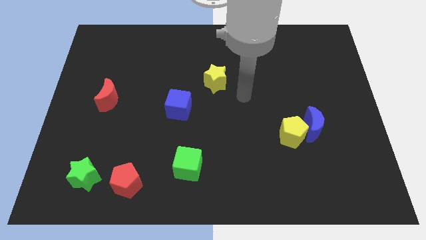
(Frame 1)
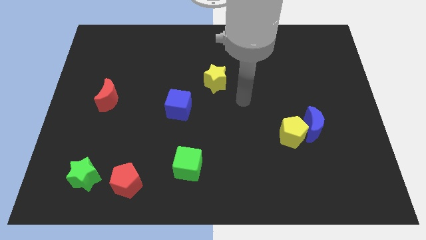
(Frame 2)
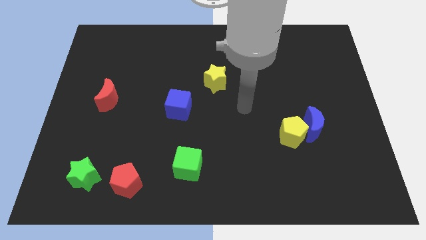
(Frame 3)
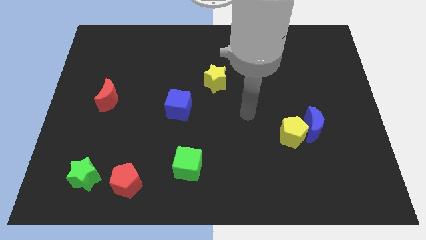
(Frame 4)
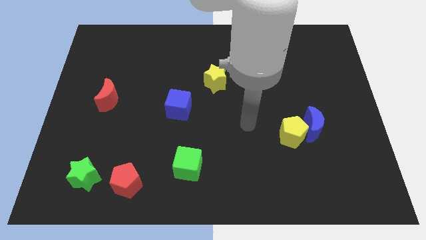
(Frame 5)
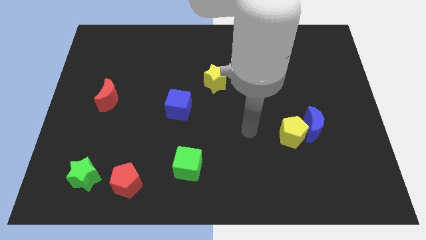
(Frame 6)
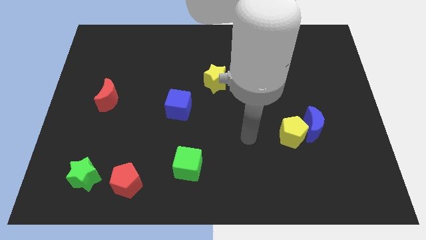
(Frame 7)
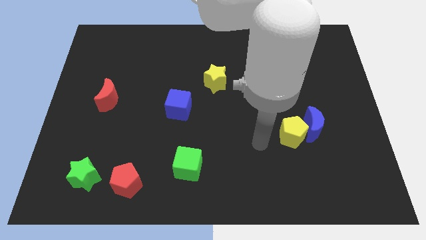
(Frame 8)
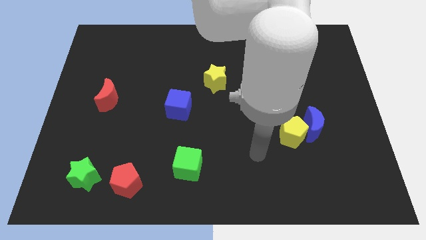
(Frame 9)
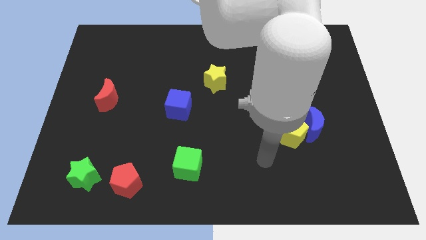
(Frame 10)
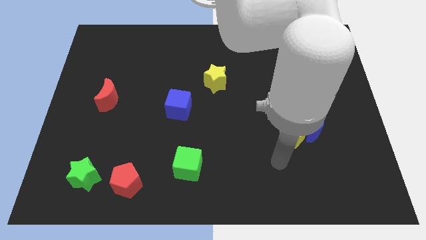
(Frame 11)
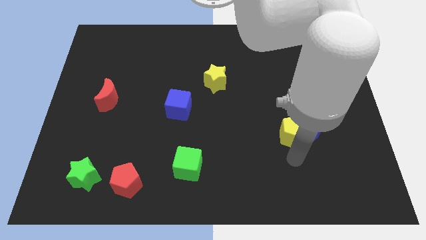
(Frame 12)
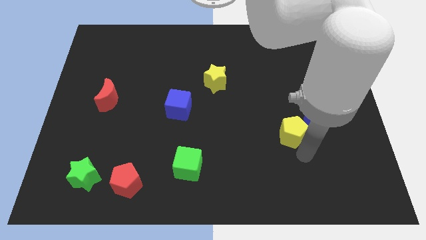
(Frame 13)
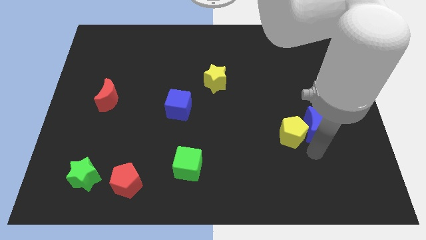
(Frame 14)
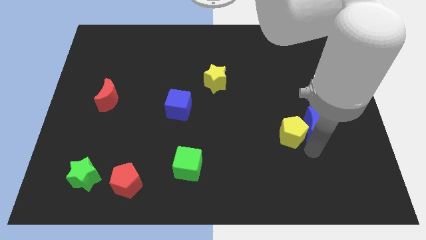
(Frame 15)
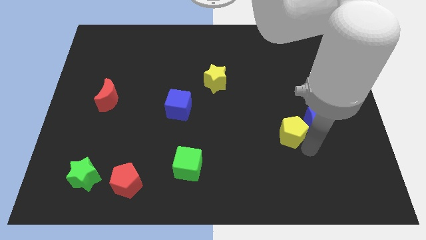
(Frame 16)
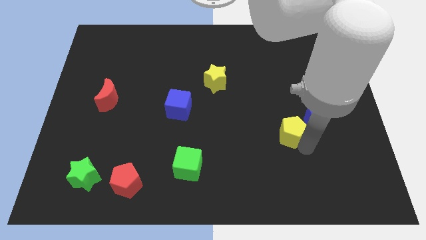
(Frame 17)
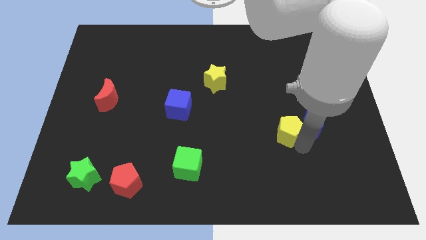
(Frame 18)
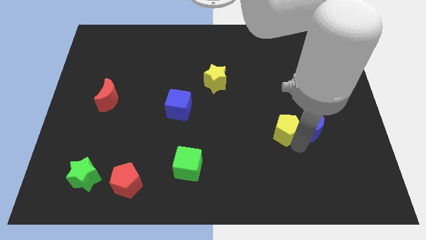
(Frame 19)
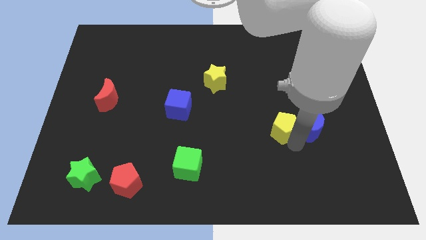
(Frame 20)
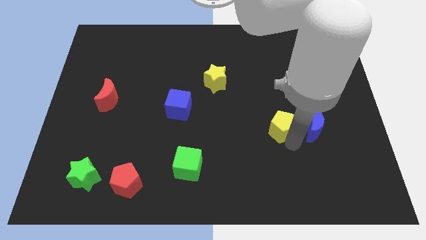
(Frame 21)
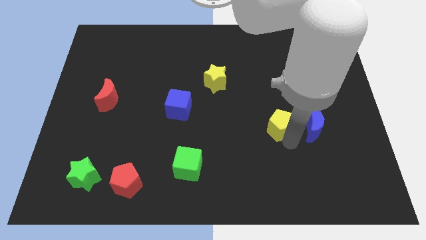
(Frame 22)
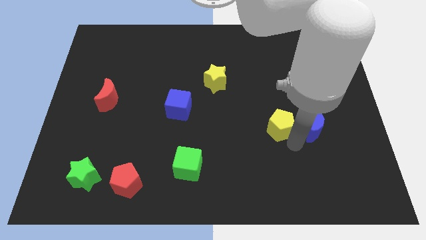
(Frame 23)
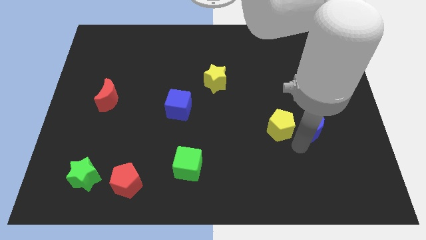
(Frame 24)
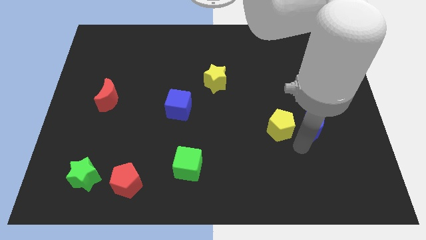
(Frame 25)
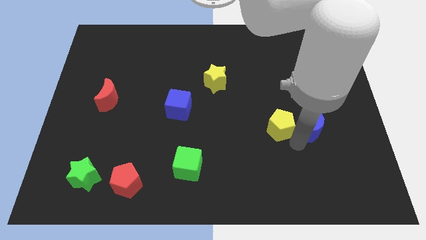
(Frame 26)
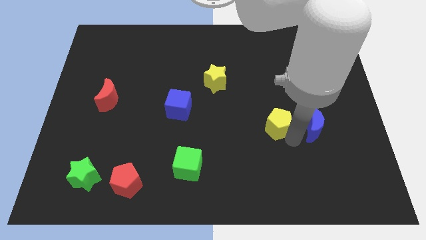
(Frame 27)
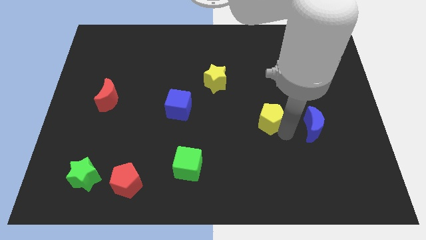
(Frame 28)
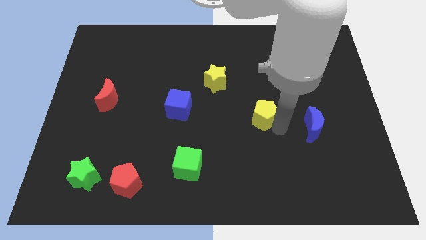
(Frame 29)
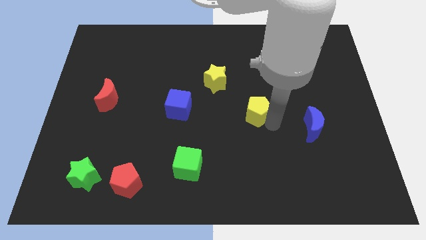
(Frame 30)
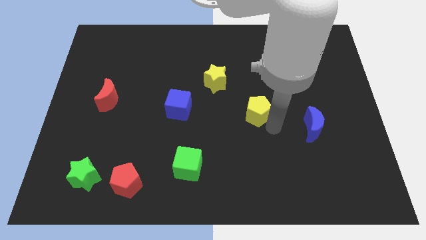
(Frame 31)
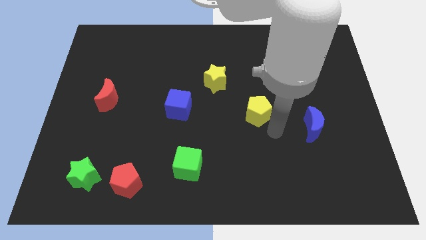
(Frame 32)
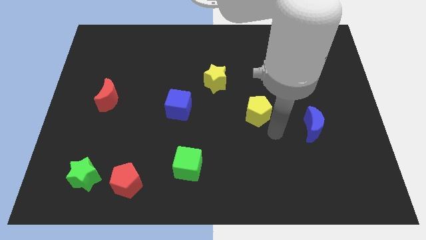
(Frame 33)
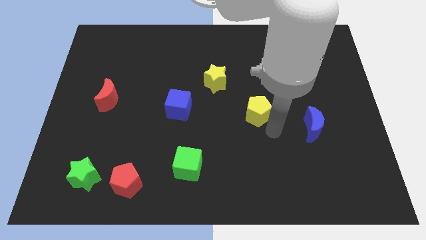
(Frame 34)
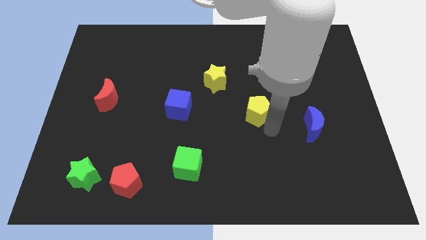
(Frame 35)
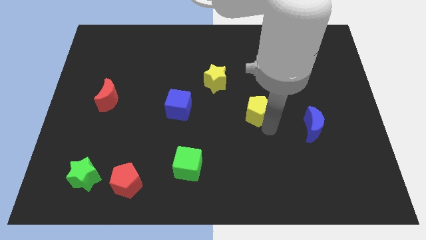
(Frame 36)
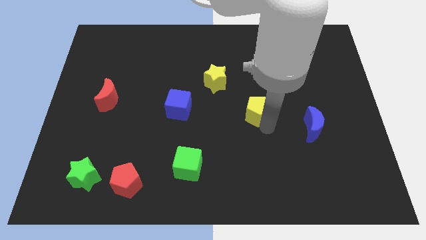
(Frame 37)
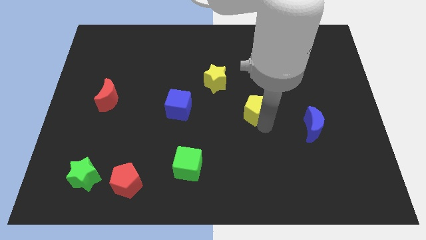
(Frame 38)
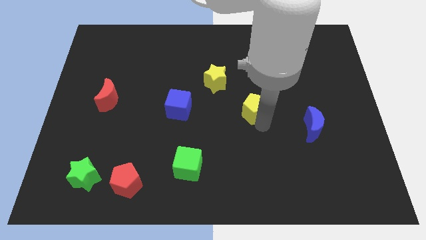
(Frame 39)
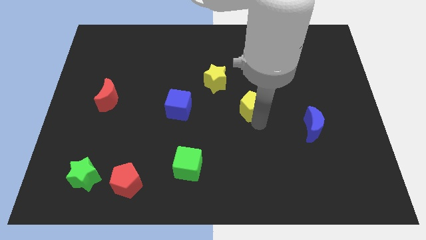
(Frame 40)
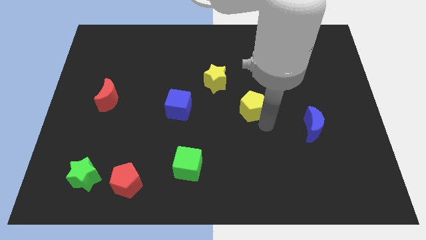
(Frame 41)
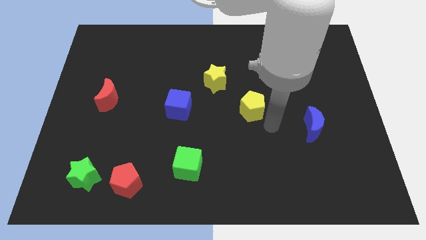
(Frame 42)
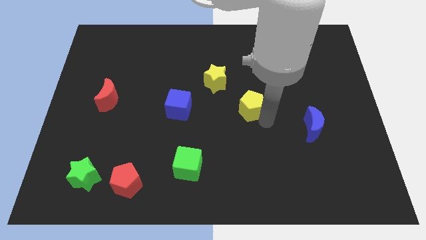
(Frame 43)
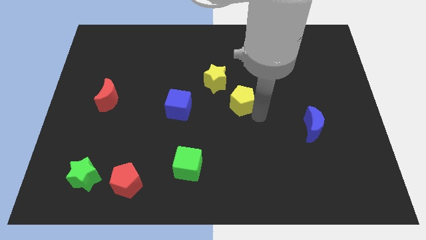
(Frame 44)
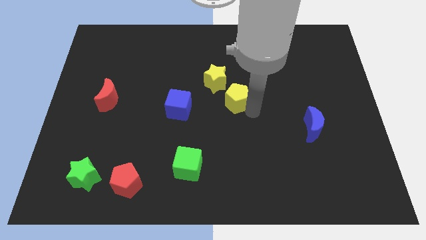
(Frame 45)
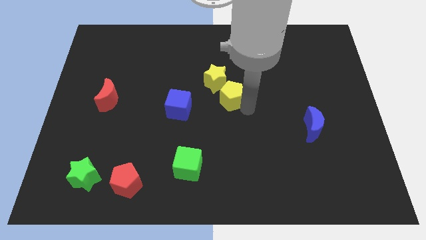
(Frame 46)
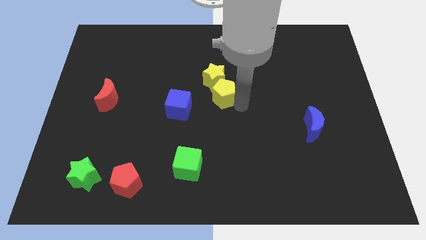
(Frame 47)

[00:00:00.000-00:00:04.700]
slide the yellow pentagon to the yellow star

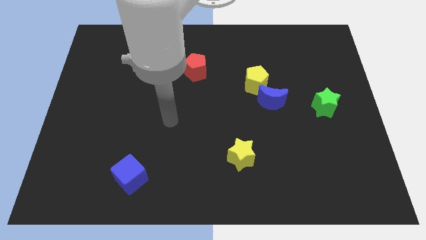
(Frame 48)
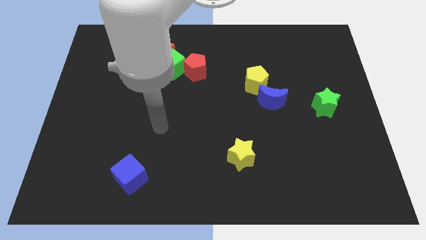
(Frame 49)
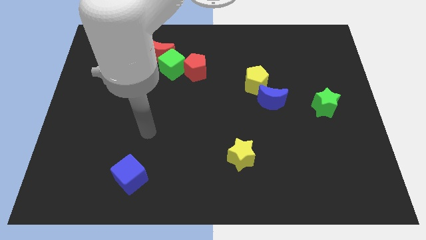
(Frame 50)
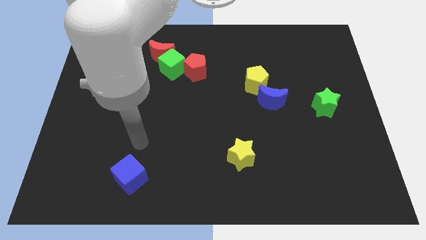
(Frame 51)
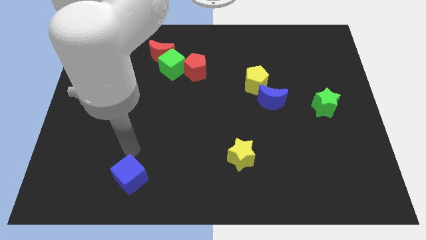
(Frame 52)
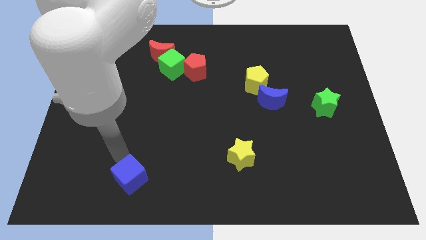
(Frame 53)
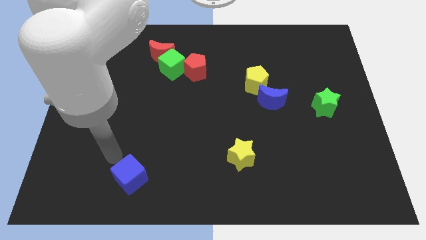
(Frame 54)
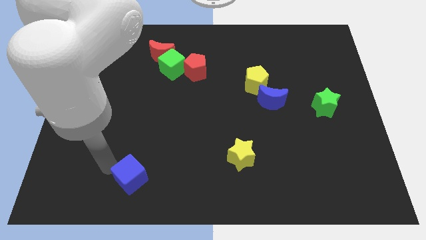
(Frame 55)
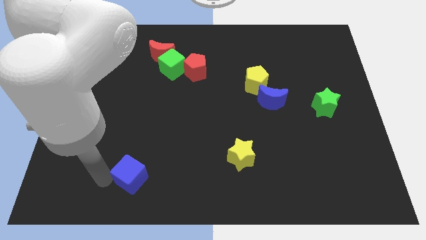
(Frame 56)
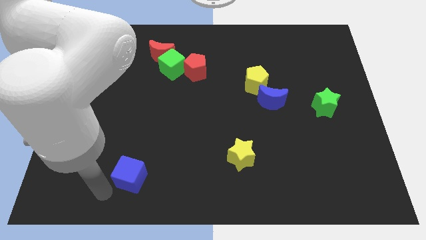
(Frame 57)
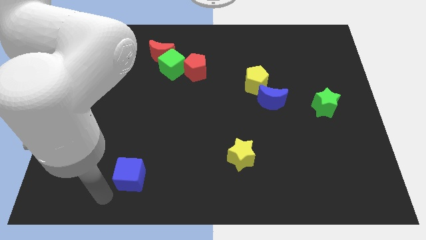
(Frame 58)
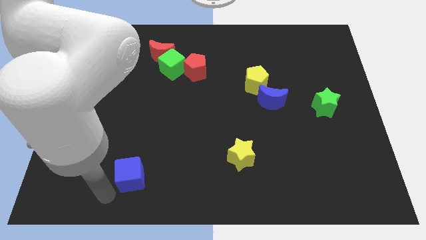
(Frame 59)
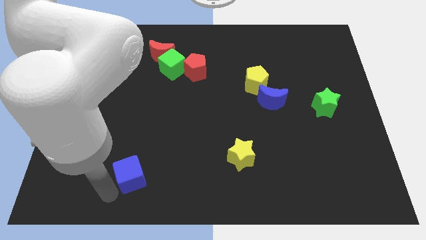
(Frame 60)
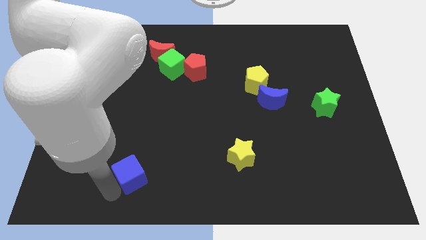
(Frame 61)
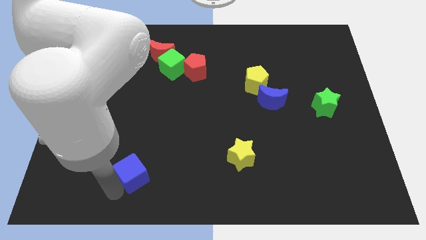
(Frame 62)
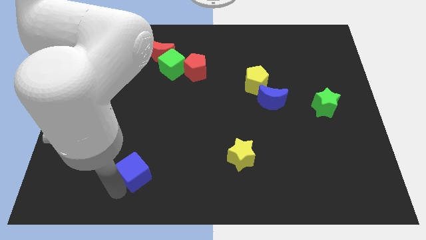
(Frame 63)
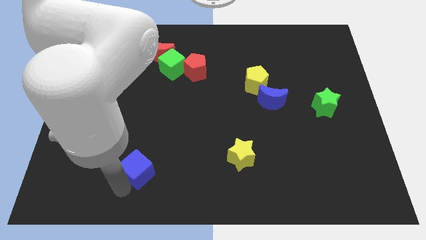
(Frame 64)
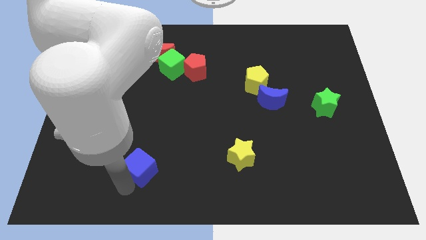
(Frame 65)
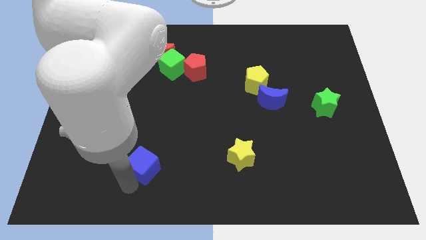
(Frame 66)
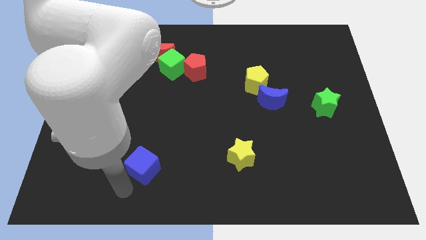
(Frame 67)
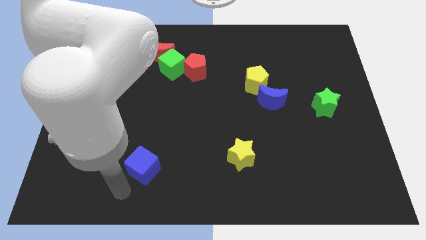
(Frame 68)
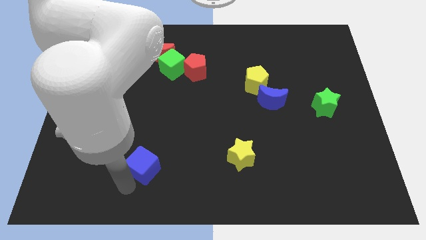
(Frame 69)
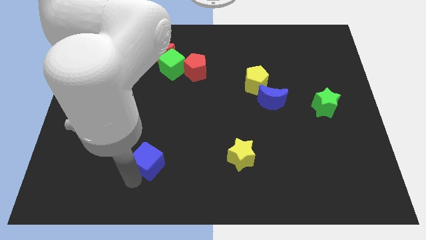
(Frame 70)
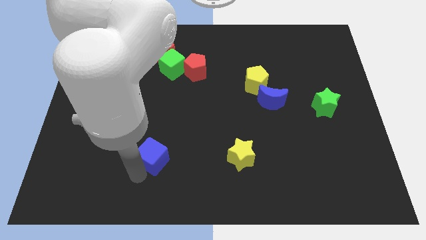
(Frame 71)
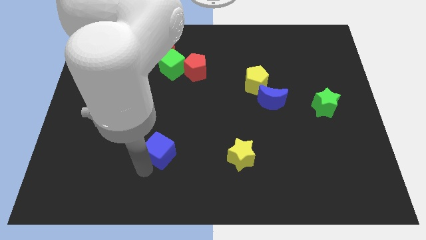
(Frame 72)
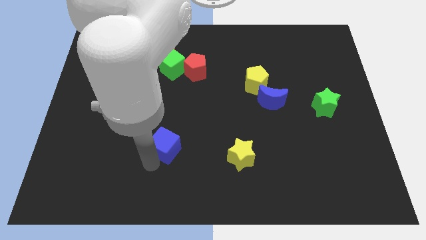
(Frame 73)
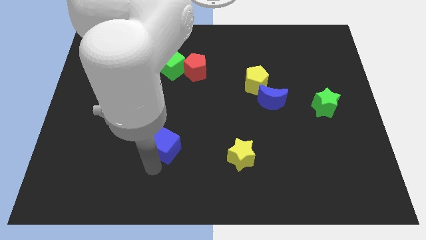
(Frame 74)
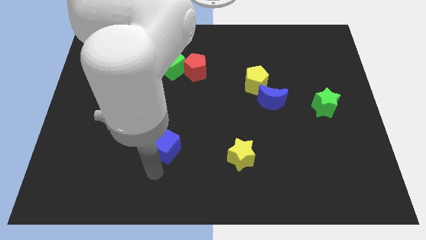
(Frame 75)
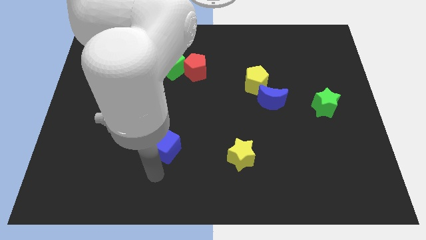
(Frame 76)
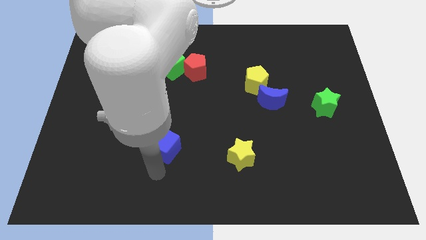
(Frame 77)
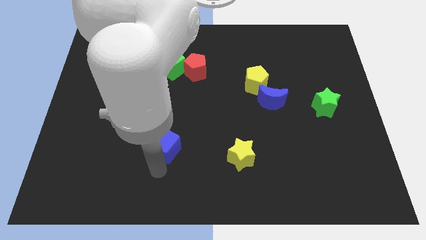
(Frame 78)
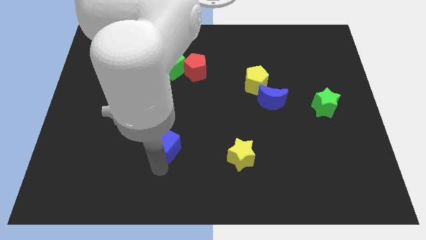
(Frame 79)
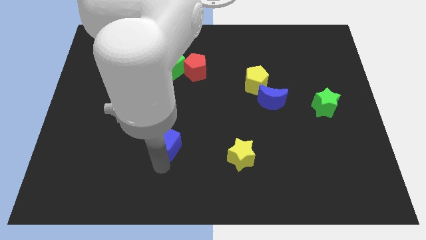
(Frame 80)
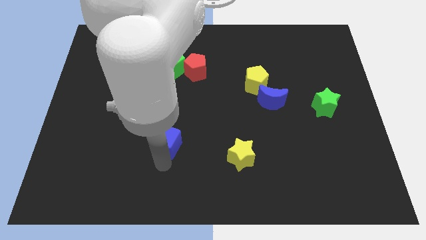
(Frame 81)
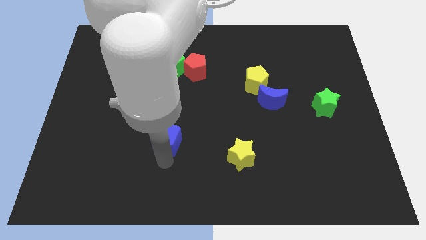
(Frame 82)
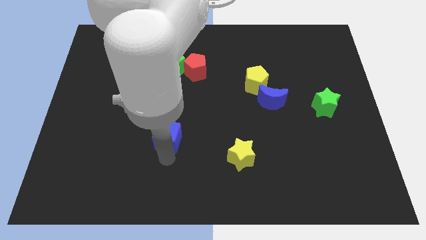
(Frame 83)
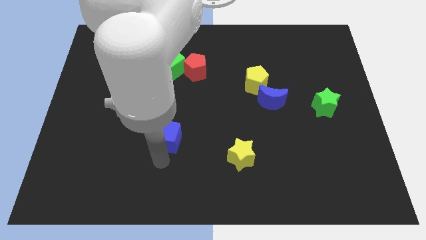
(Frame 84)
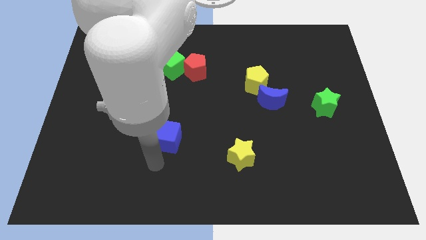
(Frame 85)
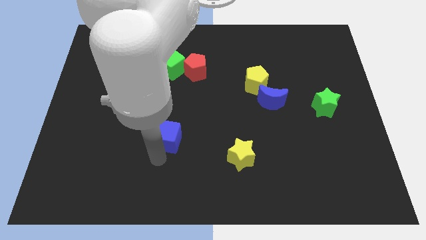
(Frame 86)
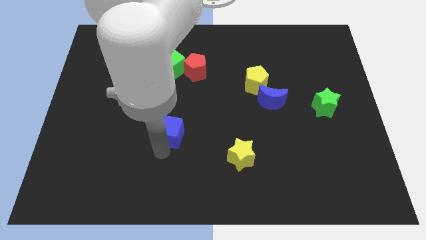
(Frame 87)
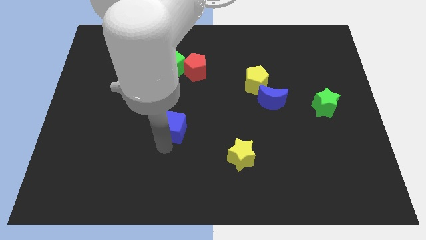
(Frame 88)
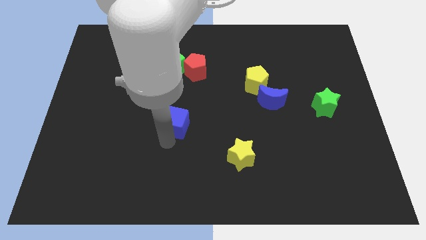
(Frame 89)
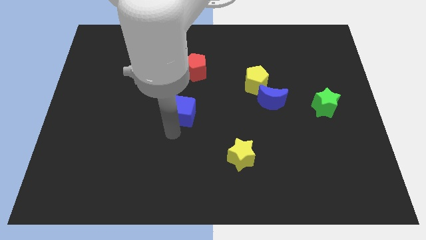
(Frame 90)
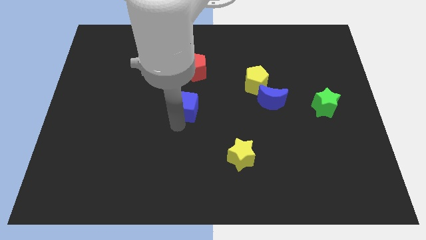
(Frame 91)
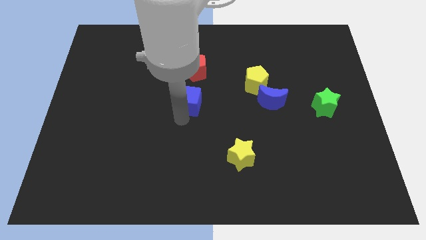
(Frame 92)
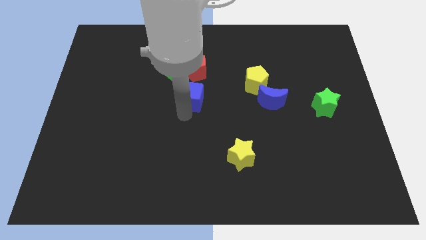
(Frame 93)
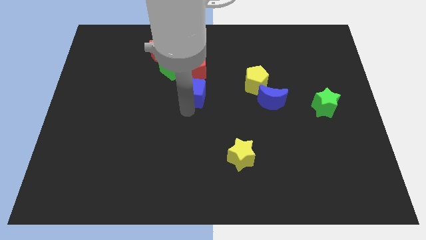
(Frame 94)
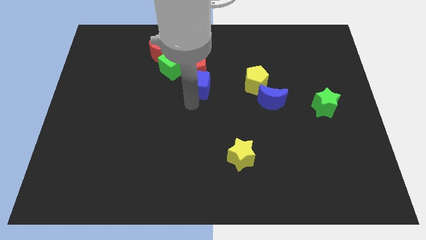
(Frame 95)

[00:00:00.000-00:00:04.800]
move the blue cube close to the red pentagon
